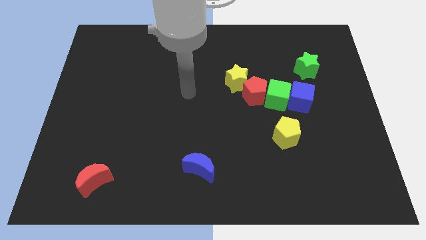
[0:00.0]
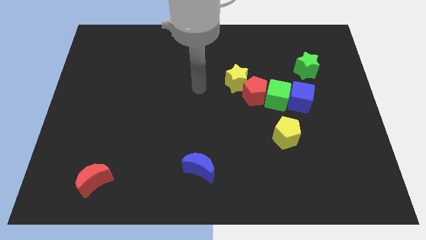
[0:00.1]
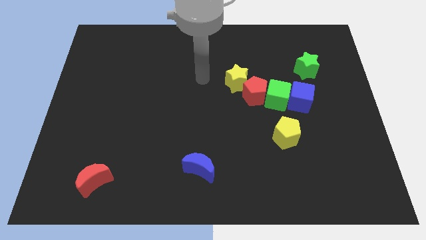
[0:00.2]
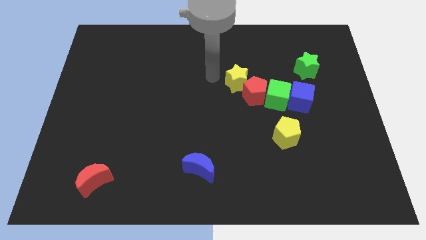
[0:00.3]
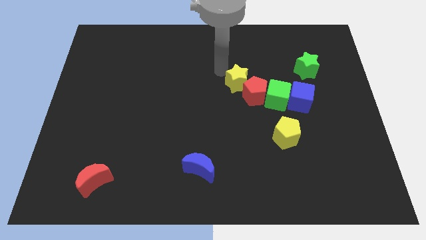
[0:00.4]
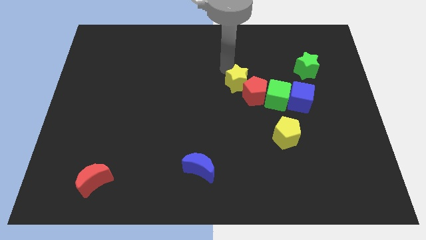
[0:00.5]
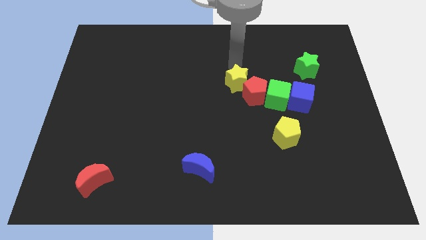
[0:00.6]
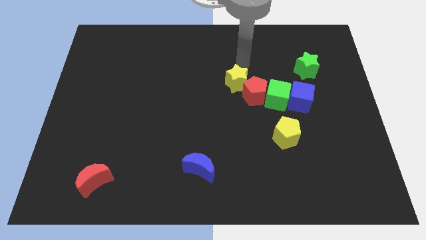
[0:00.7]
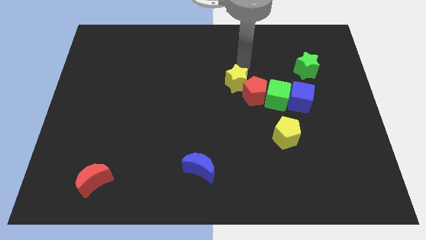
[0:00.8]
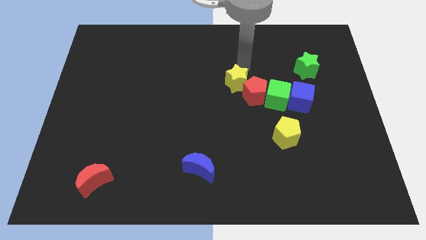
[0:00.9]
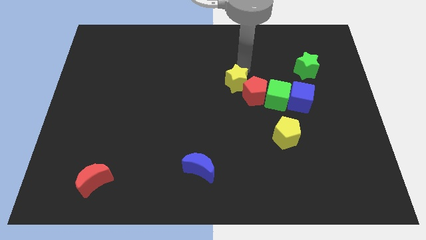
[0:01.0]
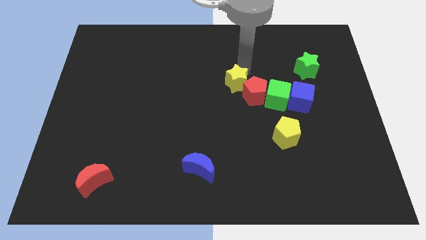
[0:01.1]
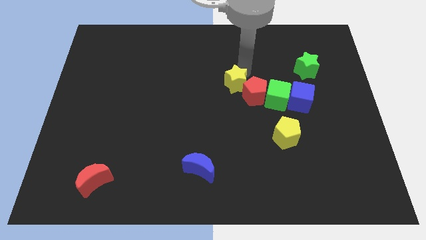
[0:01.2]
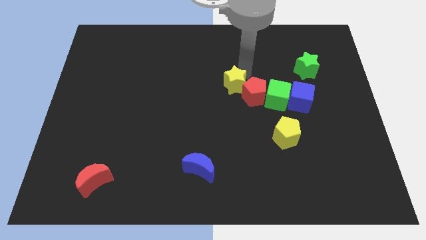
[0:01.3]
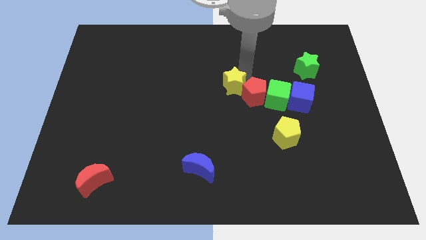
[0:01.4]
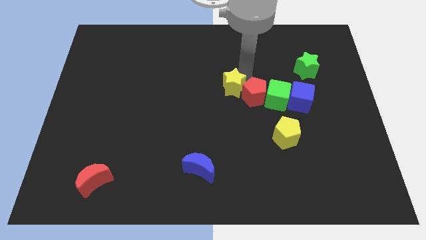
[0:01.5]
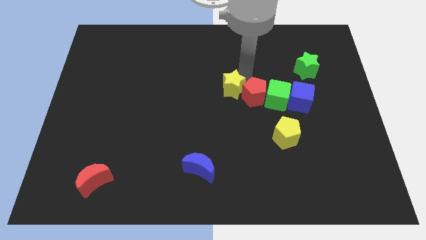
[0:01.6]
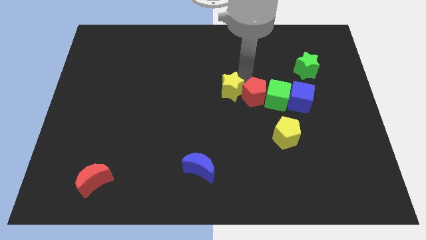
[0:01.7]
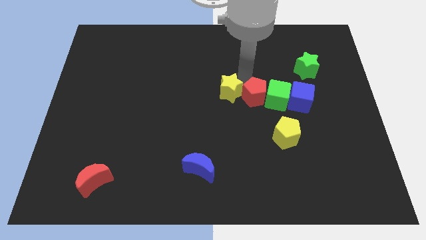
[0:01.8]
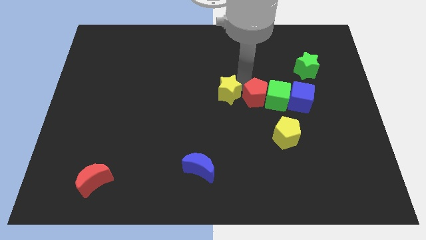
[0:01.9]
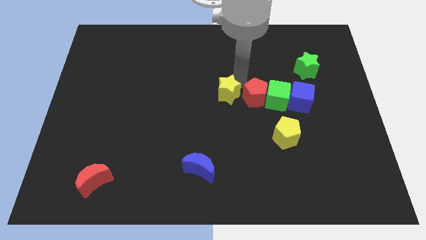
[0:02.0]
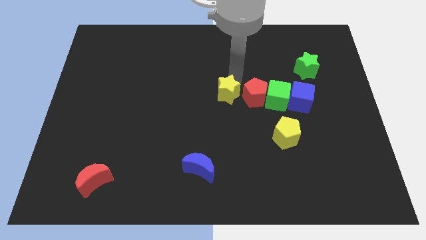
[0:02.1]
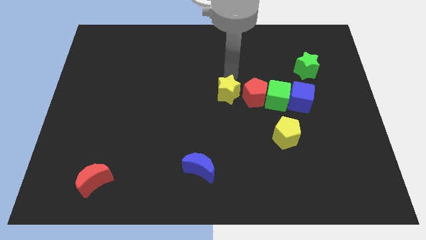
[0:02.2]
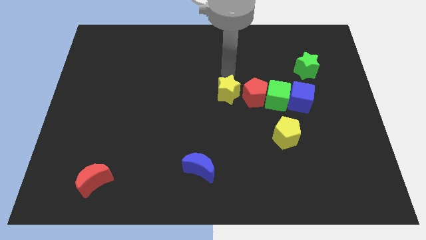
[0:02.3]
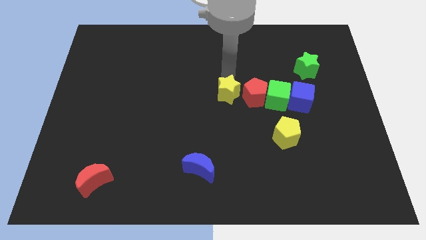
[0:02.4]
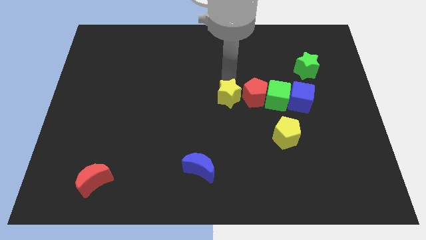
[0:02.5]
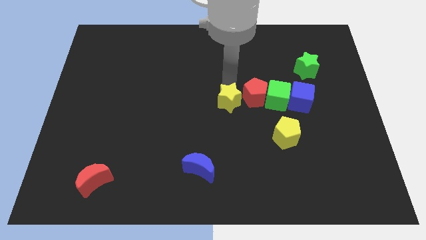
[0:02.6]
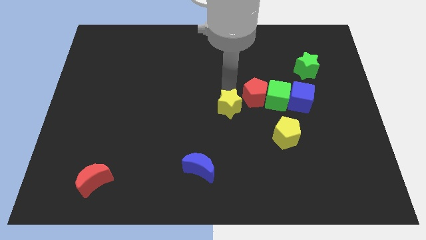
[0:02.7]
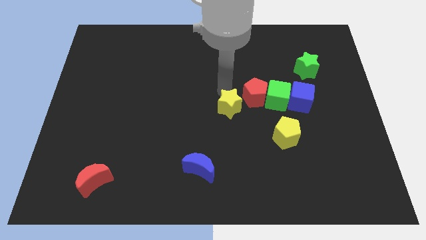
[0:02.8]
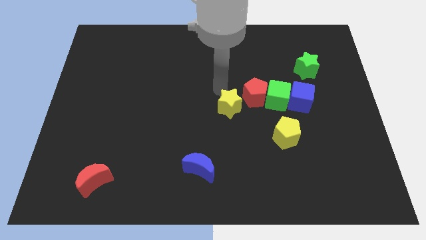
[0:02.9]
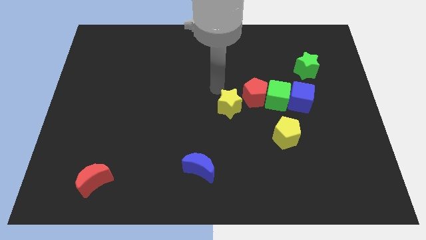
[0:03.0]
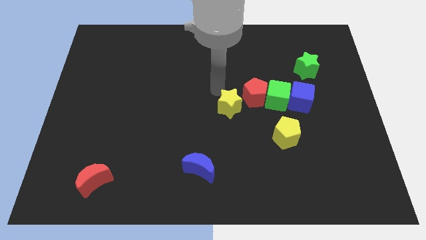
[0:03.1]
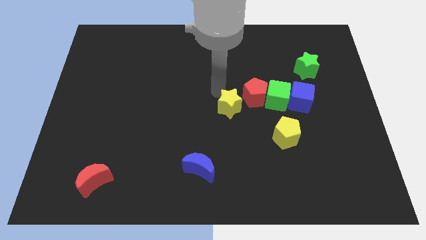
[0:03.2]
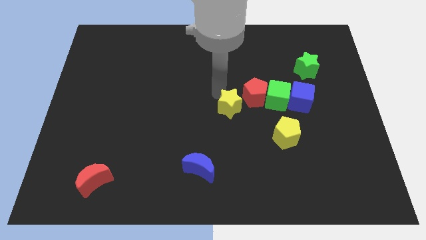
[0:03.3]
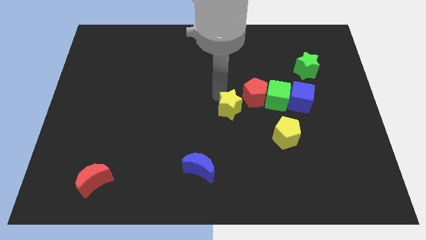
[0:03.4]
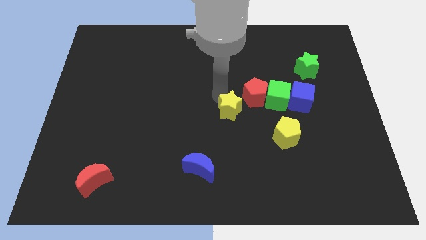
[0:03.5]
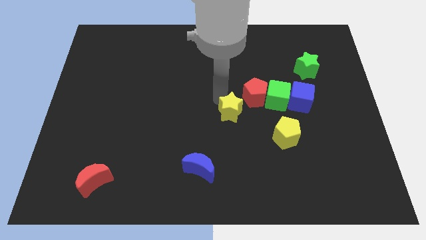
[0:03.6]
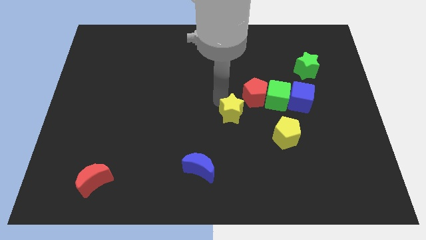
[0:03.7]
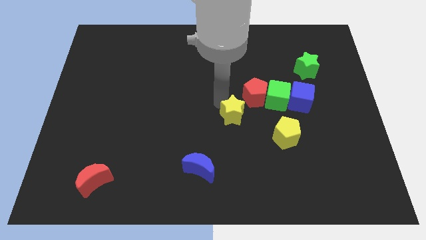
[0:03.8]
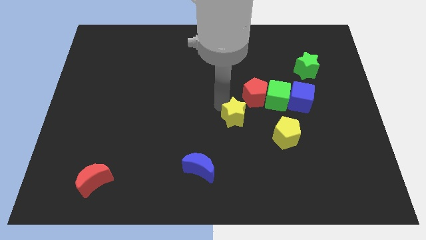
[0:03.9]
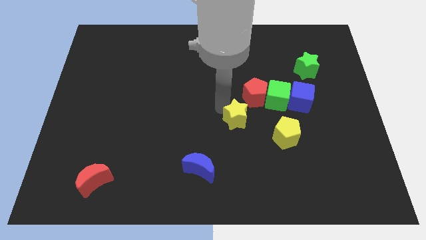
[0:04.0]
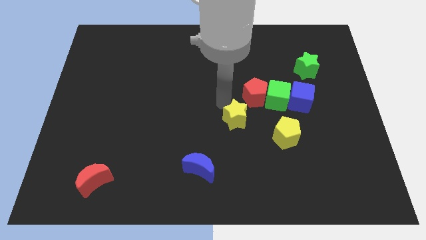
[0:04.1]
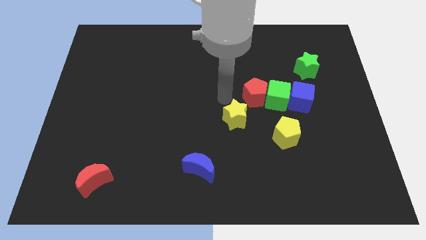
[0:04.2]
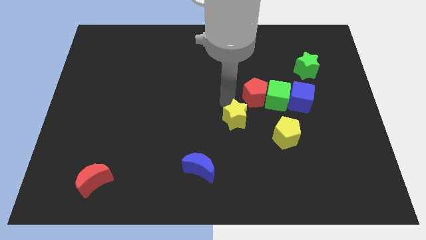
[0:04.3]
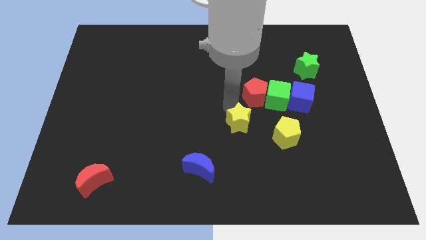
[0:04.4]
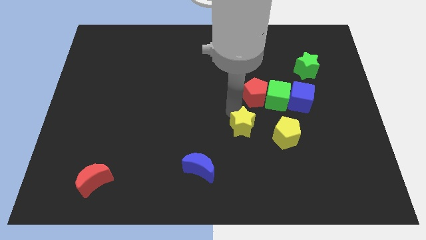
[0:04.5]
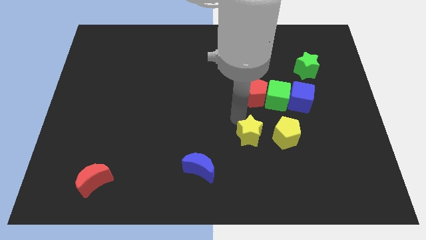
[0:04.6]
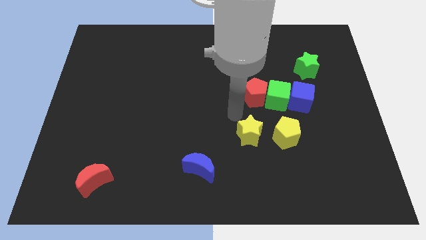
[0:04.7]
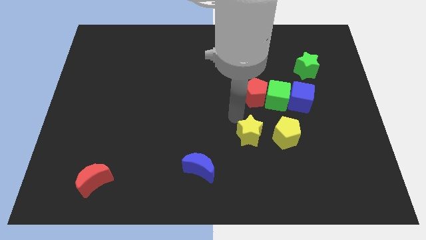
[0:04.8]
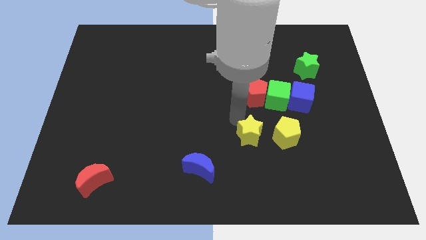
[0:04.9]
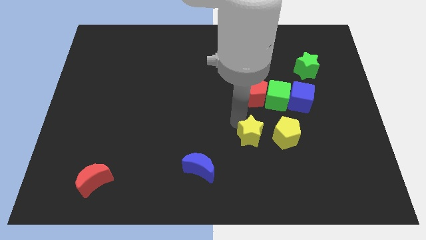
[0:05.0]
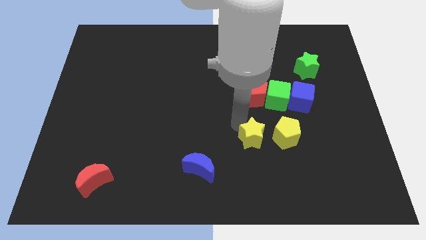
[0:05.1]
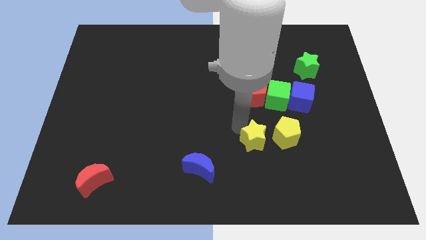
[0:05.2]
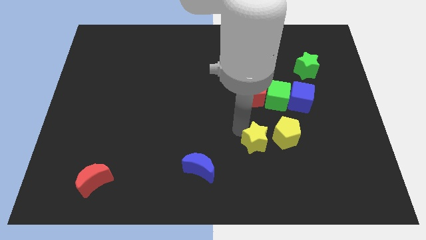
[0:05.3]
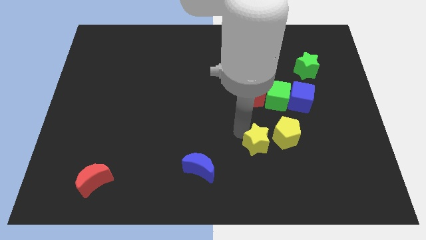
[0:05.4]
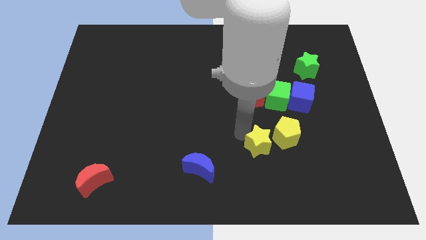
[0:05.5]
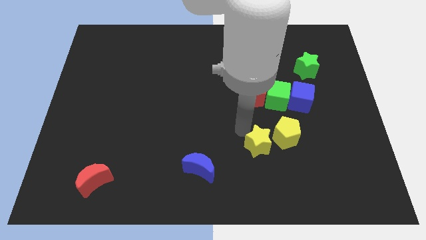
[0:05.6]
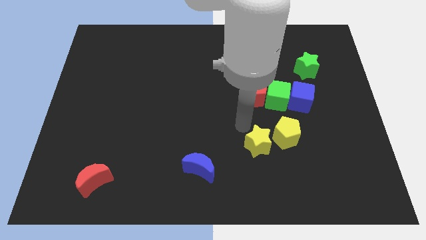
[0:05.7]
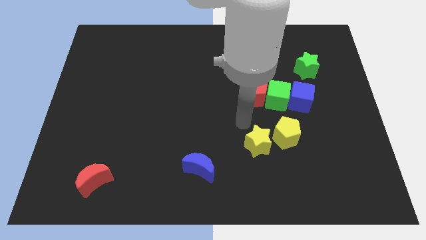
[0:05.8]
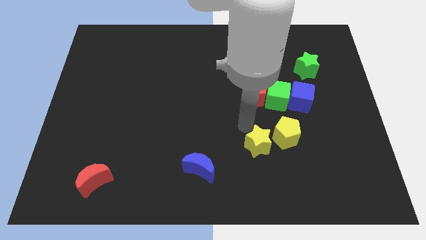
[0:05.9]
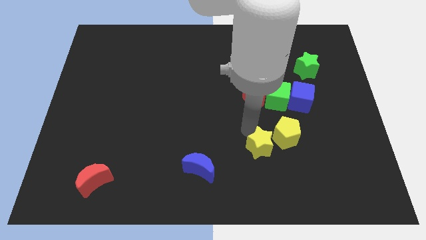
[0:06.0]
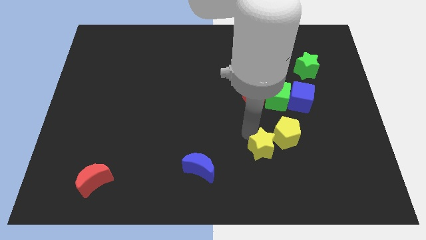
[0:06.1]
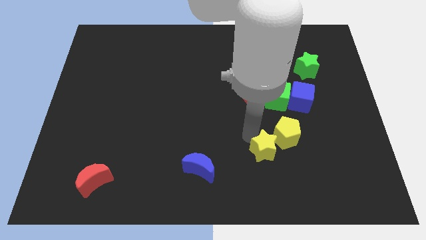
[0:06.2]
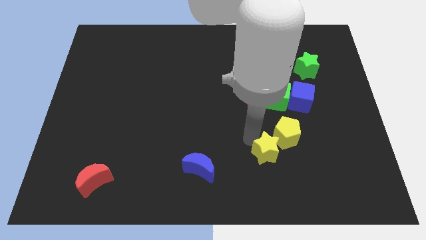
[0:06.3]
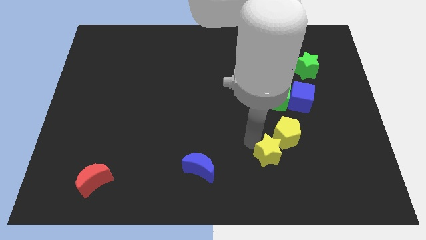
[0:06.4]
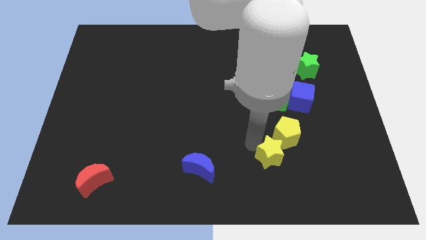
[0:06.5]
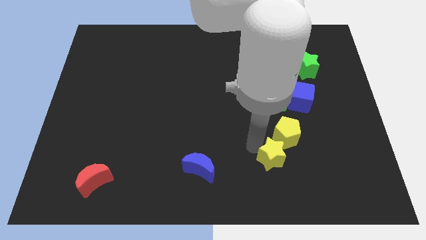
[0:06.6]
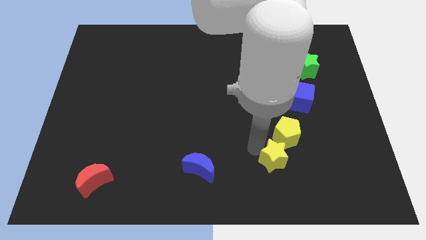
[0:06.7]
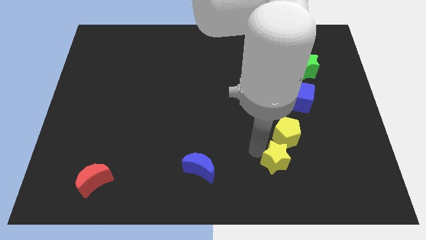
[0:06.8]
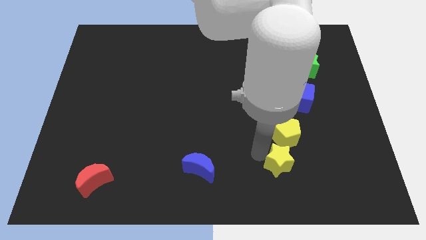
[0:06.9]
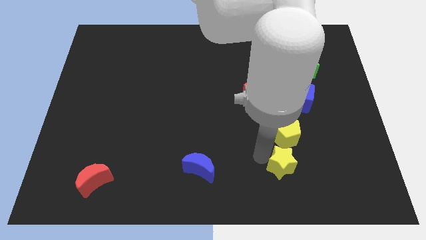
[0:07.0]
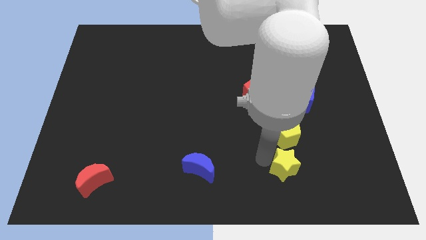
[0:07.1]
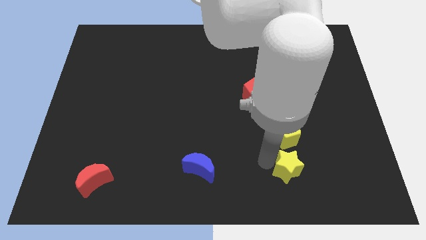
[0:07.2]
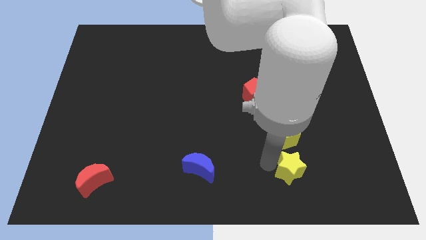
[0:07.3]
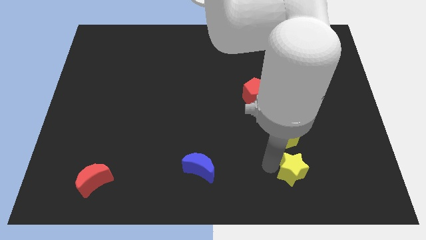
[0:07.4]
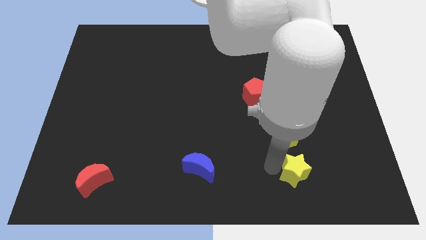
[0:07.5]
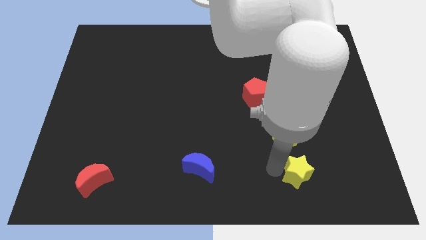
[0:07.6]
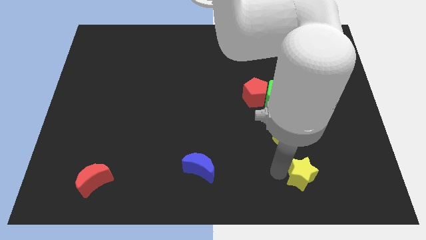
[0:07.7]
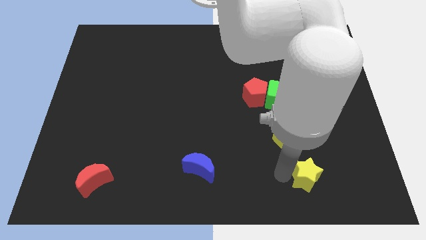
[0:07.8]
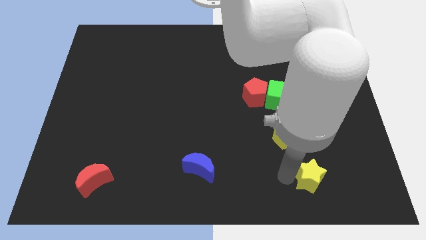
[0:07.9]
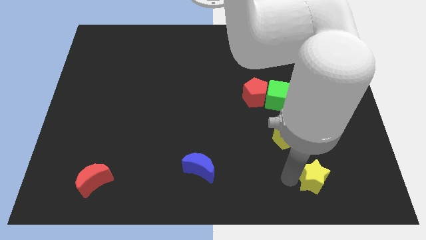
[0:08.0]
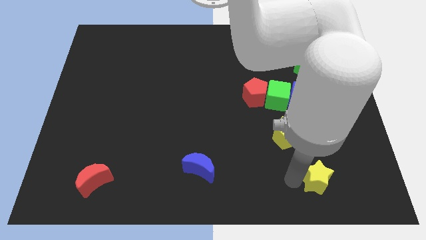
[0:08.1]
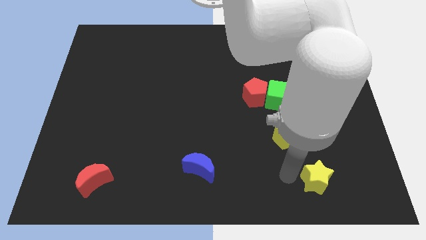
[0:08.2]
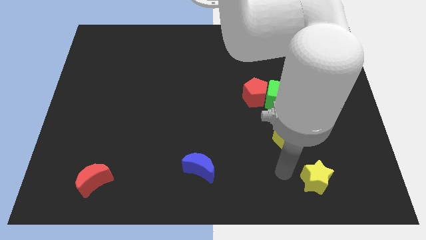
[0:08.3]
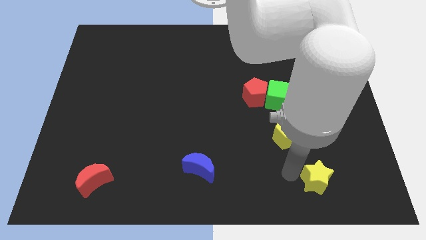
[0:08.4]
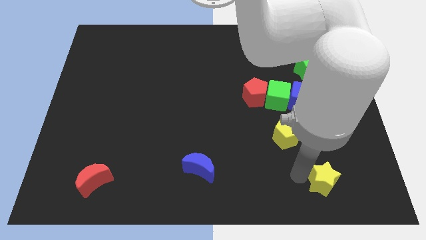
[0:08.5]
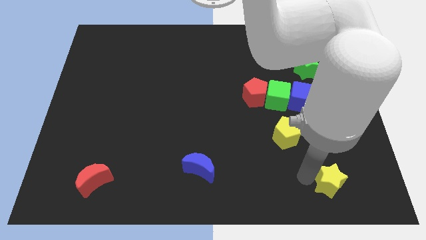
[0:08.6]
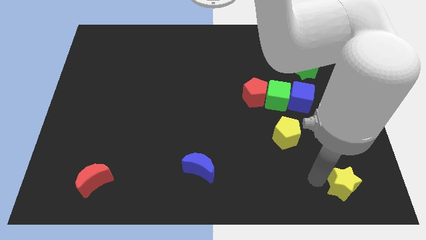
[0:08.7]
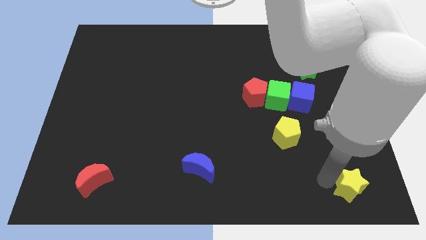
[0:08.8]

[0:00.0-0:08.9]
put the yellow star to the bottom right corner
